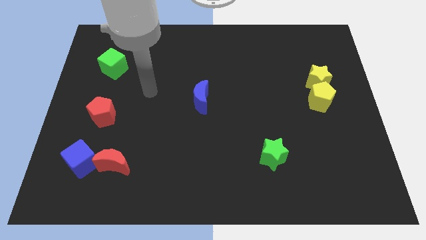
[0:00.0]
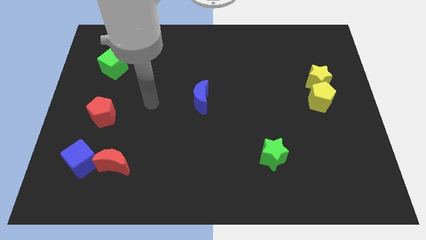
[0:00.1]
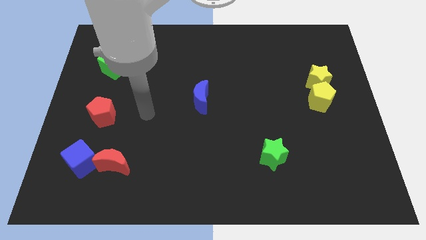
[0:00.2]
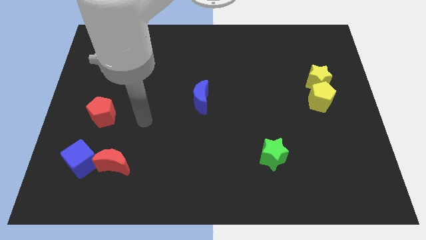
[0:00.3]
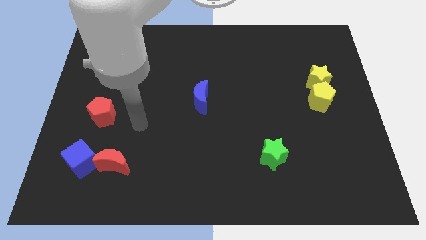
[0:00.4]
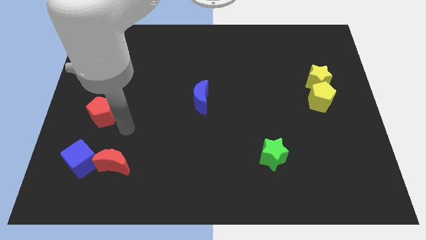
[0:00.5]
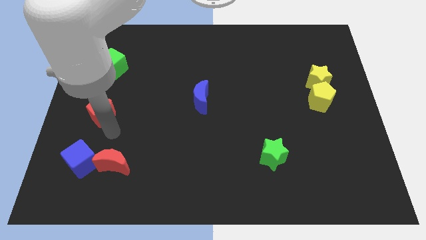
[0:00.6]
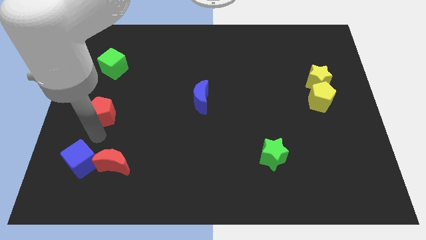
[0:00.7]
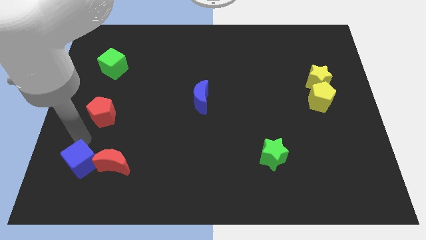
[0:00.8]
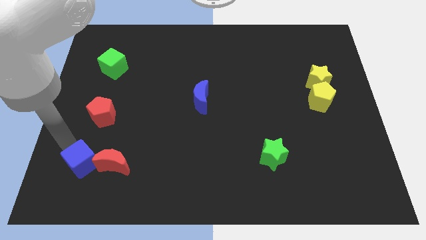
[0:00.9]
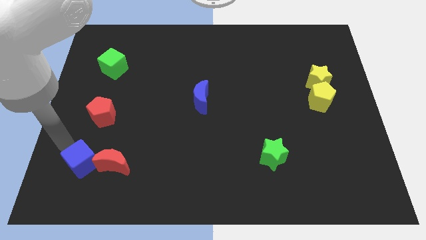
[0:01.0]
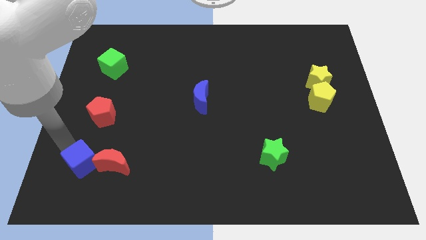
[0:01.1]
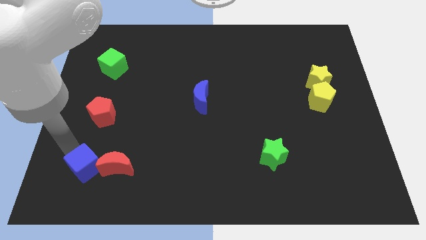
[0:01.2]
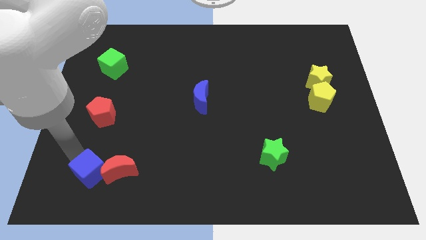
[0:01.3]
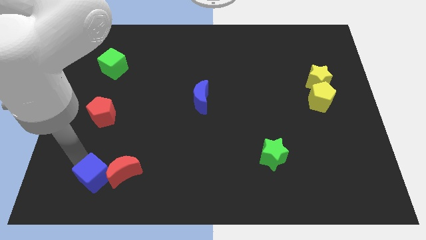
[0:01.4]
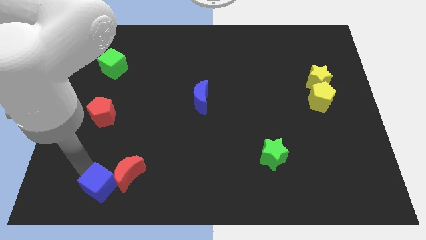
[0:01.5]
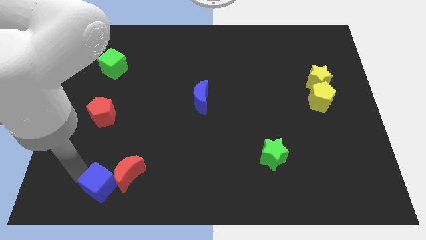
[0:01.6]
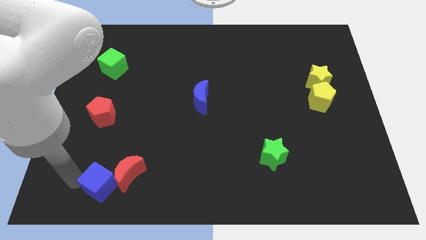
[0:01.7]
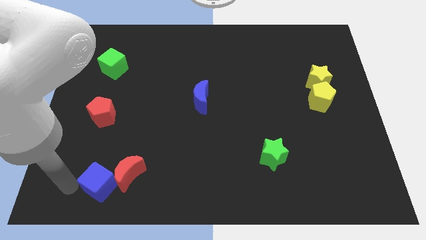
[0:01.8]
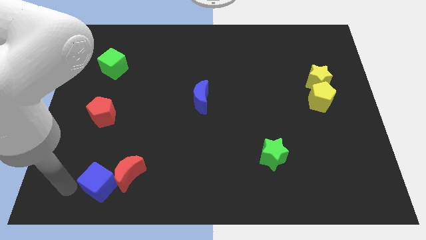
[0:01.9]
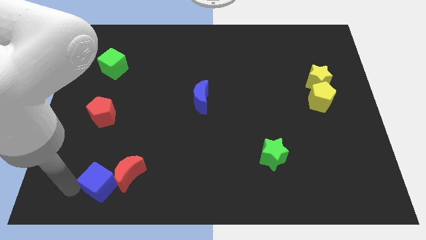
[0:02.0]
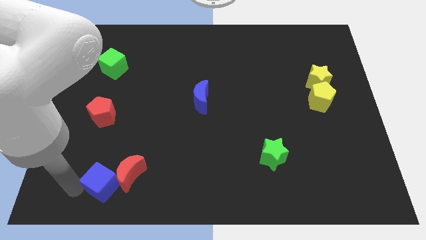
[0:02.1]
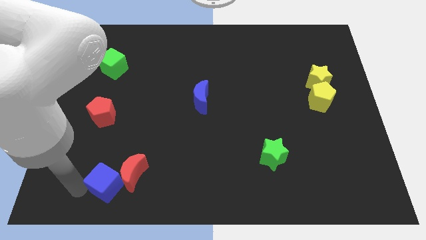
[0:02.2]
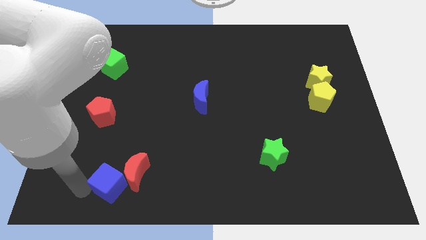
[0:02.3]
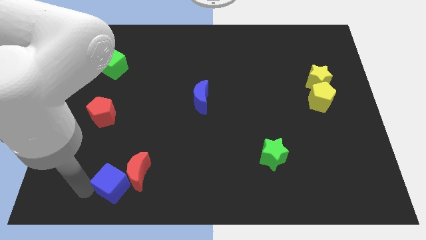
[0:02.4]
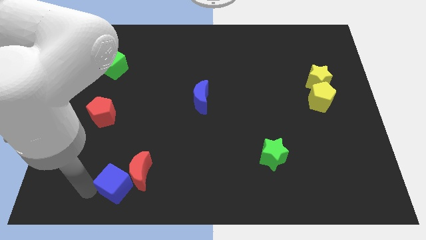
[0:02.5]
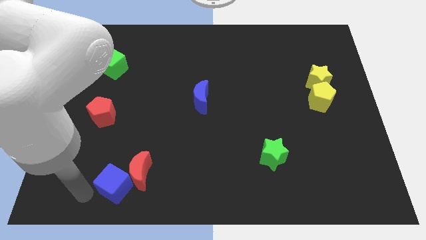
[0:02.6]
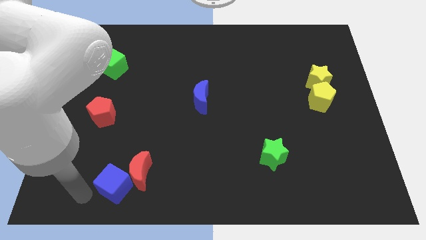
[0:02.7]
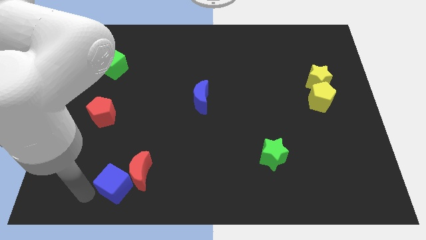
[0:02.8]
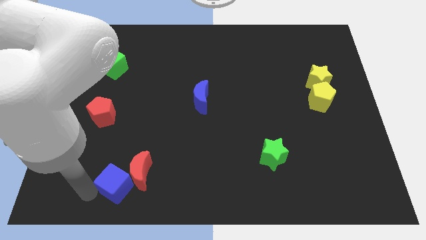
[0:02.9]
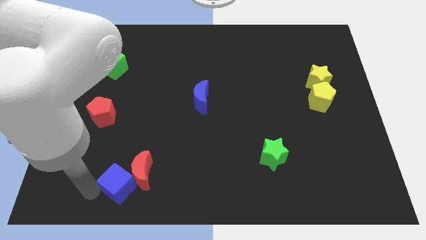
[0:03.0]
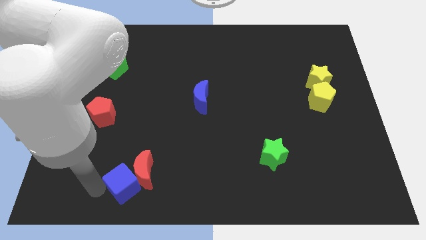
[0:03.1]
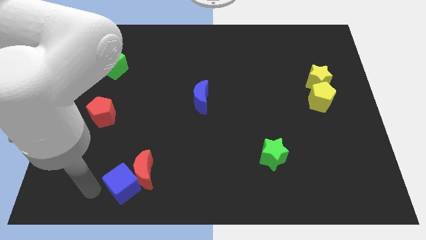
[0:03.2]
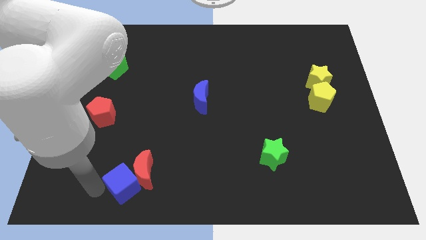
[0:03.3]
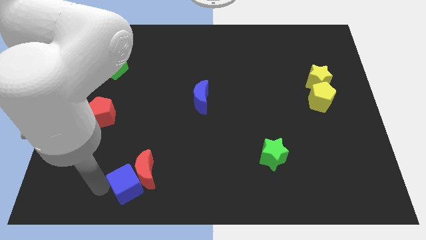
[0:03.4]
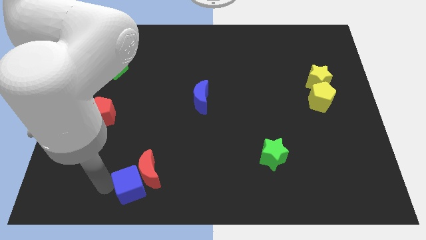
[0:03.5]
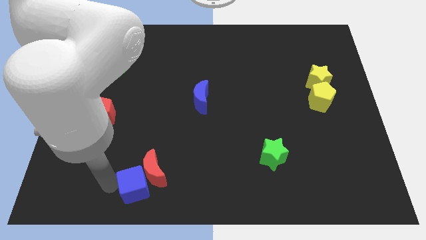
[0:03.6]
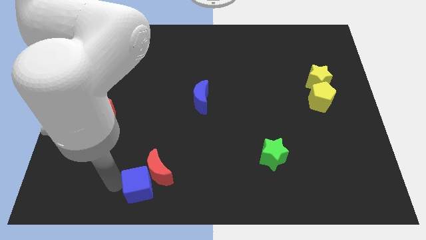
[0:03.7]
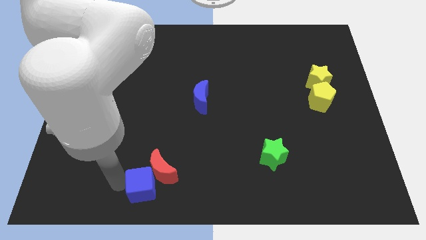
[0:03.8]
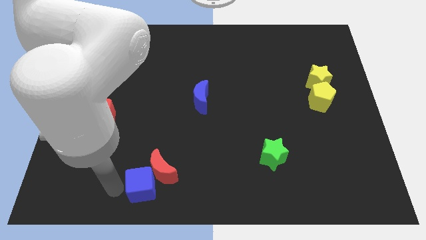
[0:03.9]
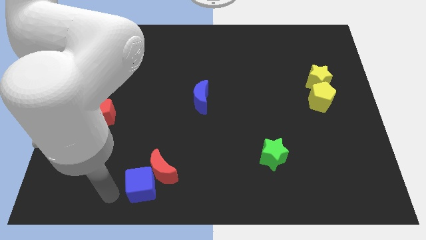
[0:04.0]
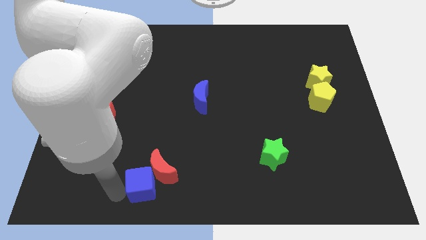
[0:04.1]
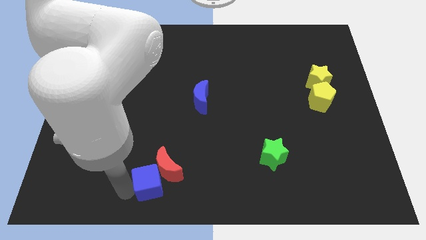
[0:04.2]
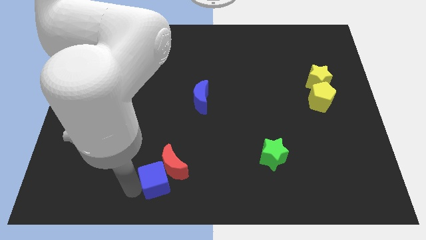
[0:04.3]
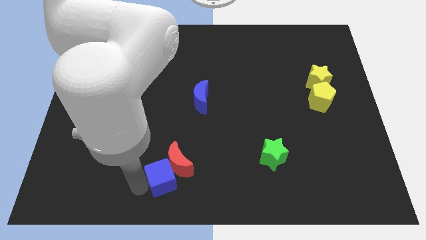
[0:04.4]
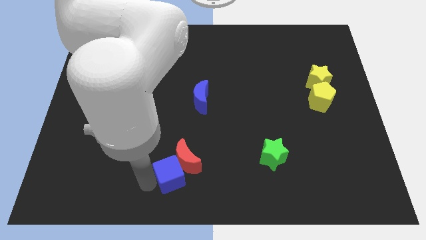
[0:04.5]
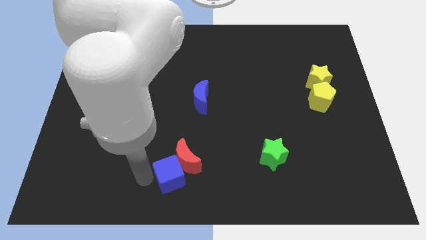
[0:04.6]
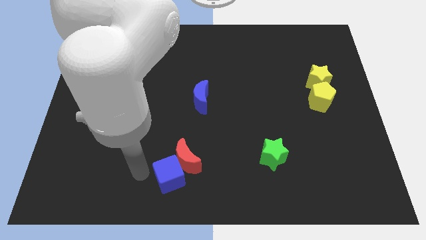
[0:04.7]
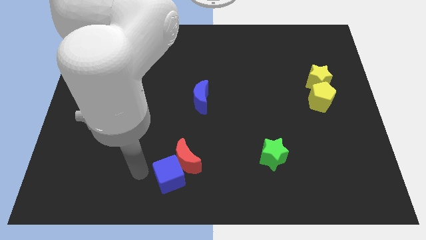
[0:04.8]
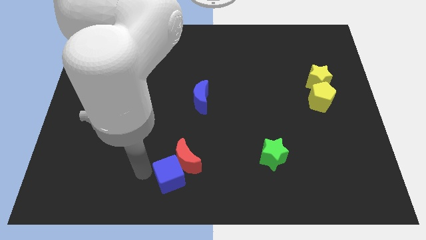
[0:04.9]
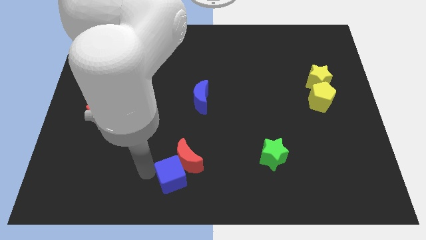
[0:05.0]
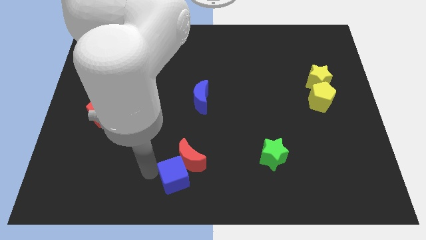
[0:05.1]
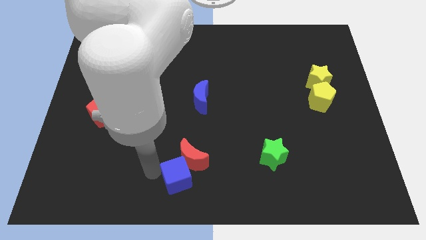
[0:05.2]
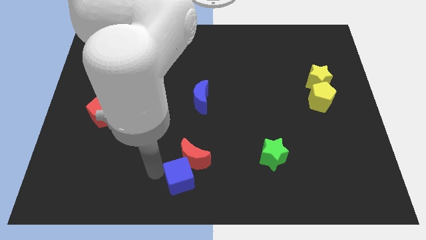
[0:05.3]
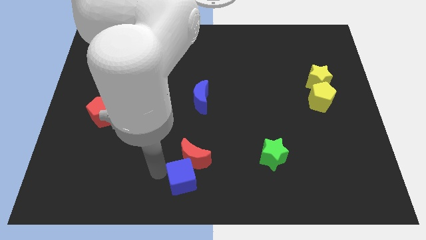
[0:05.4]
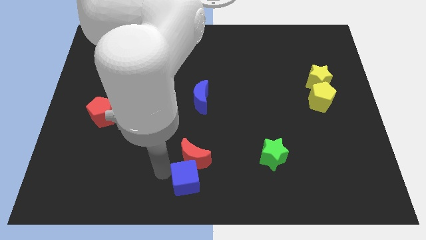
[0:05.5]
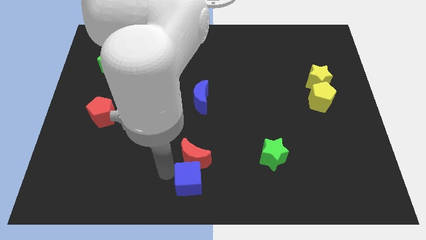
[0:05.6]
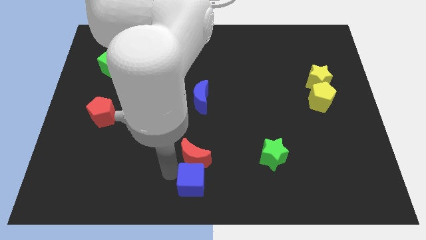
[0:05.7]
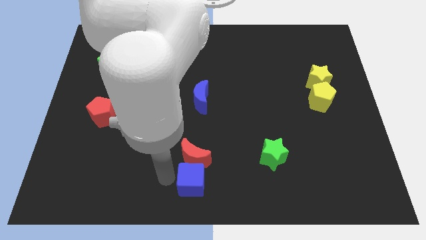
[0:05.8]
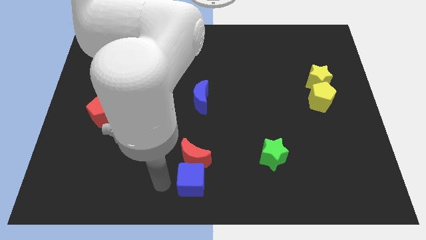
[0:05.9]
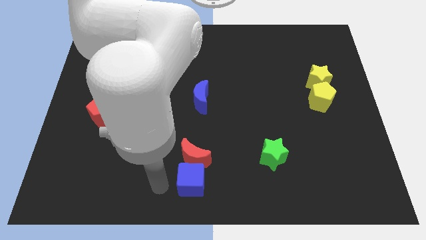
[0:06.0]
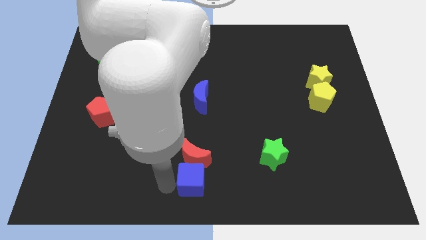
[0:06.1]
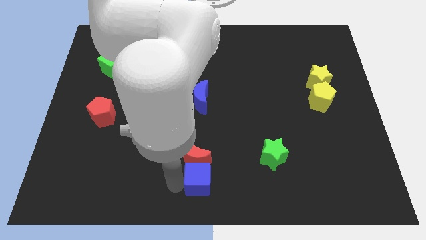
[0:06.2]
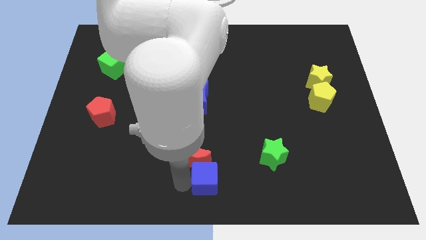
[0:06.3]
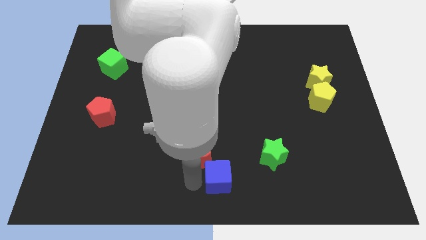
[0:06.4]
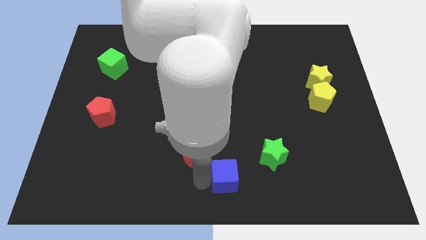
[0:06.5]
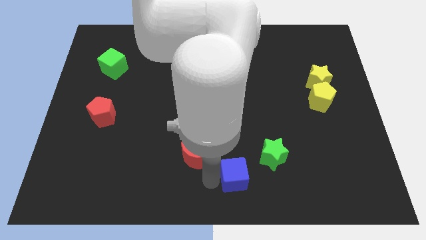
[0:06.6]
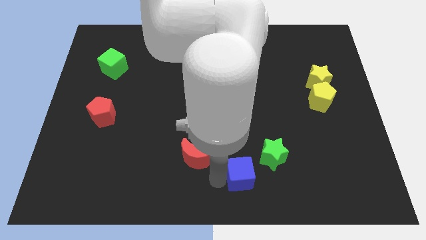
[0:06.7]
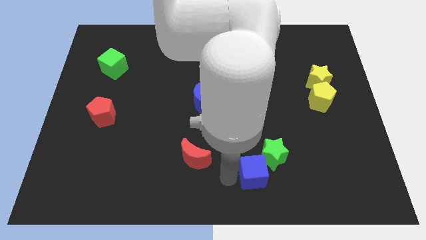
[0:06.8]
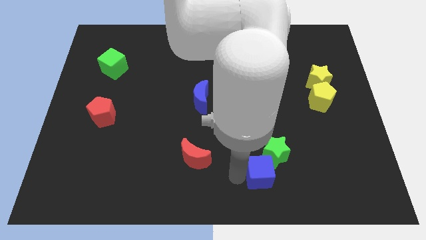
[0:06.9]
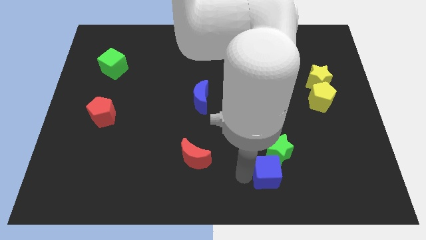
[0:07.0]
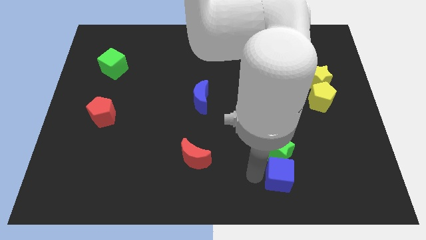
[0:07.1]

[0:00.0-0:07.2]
slide the blue cube to the bottom right of the green star

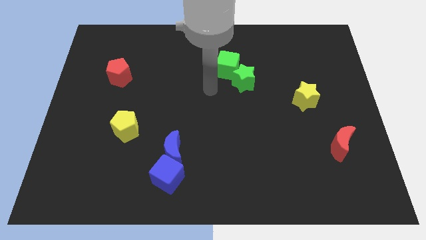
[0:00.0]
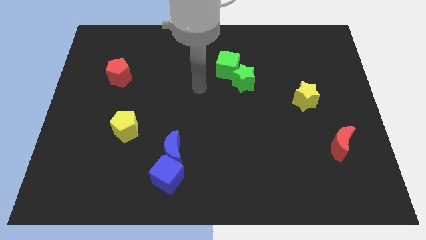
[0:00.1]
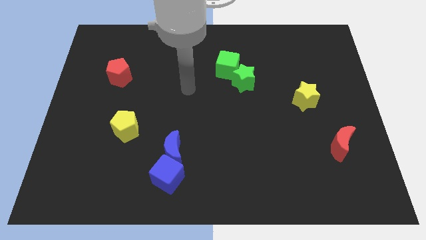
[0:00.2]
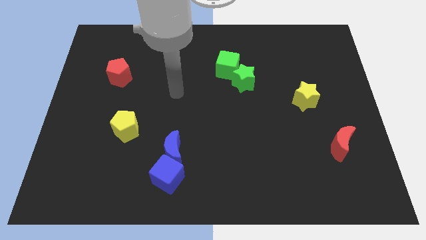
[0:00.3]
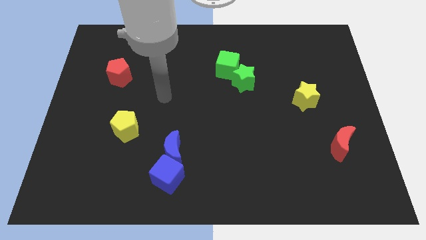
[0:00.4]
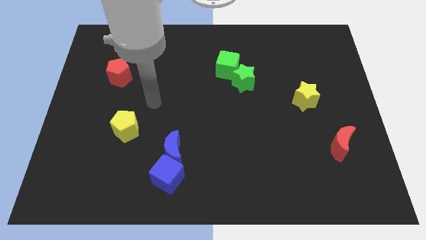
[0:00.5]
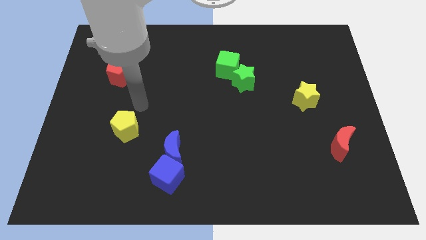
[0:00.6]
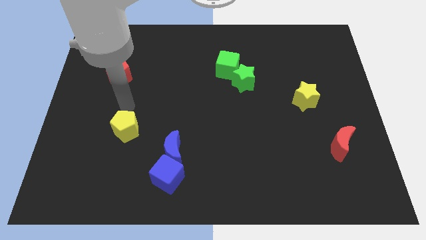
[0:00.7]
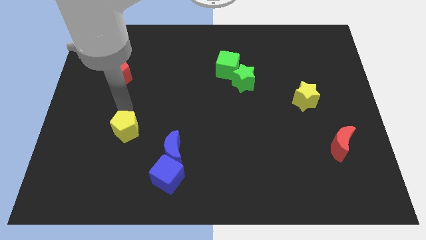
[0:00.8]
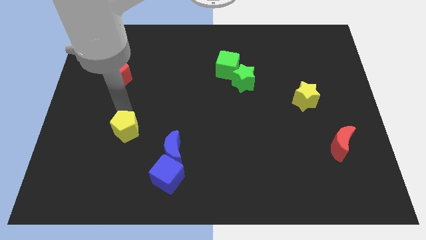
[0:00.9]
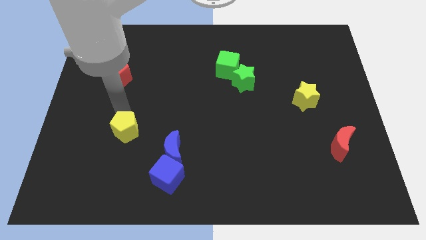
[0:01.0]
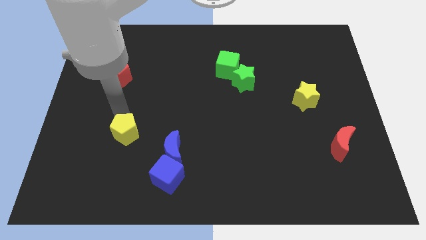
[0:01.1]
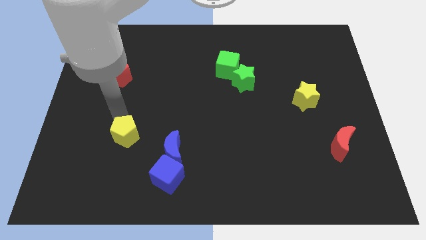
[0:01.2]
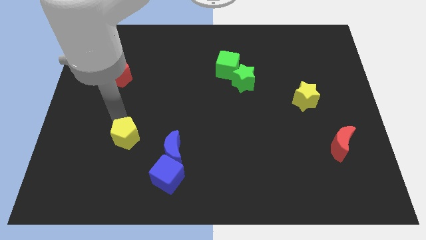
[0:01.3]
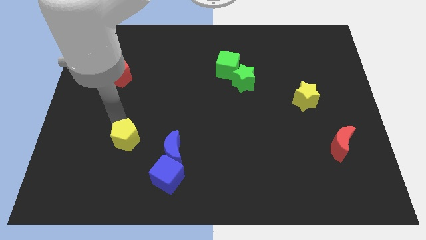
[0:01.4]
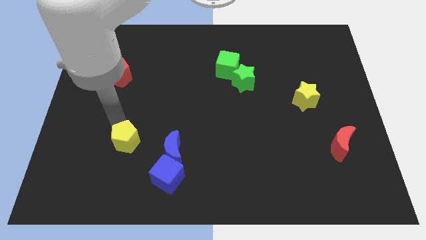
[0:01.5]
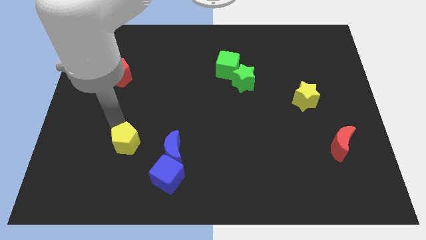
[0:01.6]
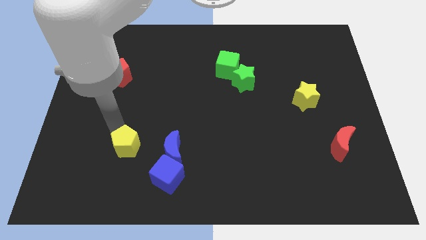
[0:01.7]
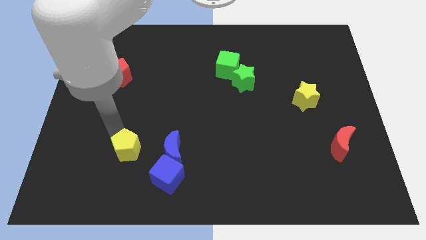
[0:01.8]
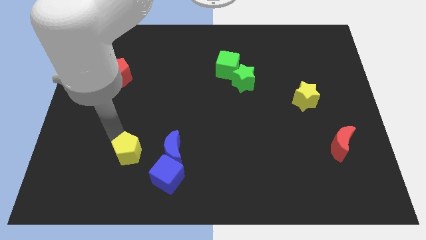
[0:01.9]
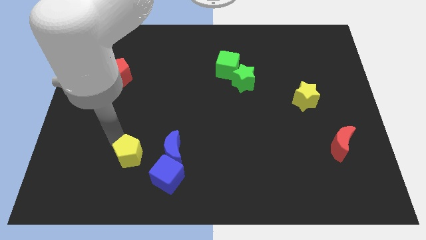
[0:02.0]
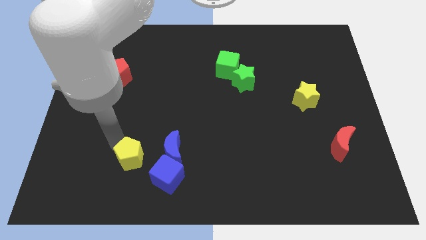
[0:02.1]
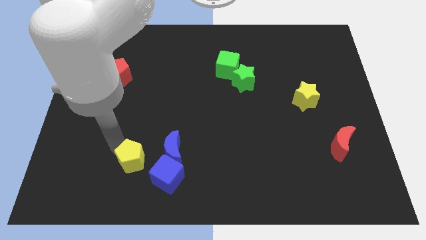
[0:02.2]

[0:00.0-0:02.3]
push the yellow pentagon to the bottom left of the blue moon
